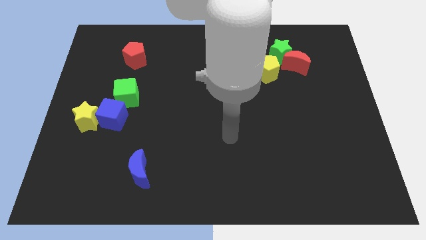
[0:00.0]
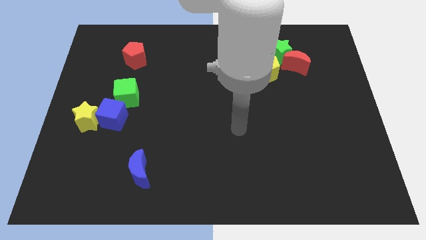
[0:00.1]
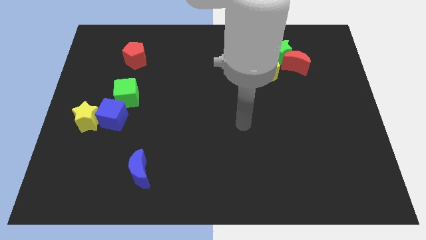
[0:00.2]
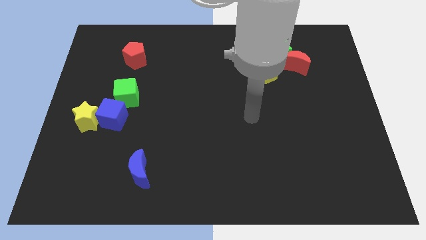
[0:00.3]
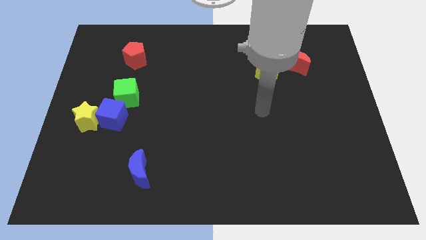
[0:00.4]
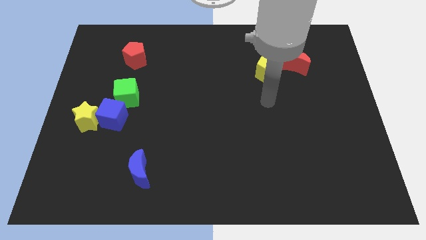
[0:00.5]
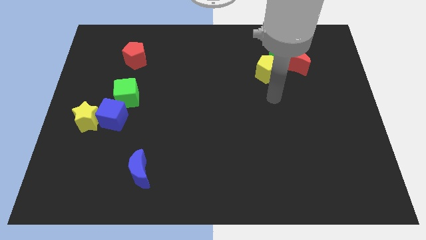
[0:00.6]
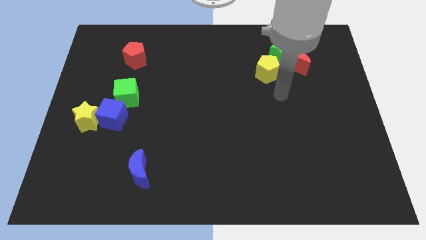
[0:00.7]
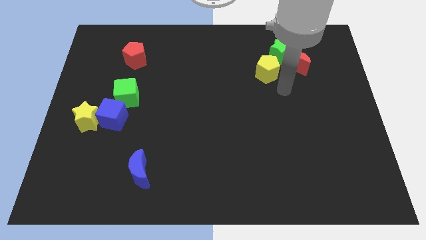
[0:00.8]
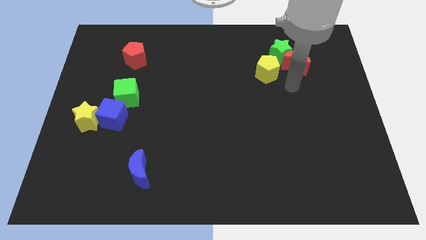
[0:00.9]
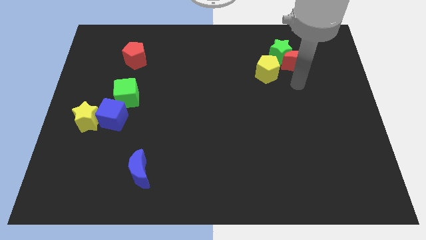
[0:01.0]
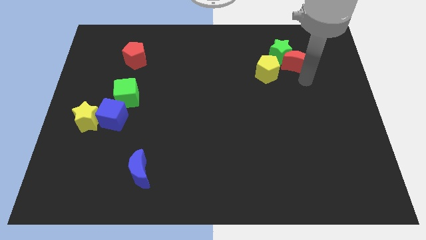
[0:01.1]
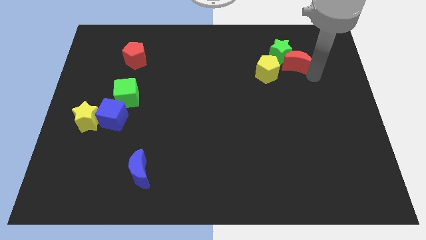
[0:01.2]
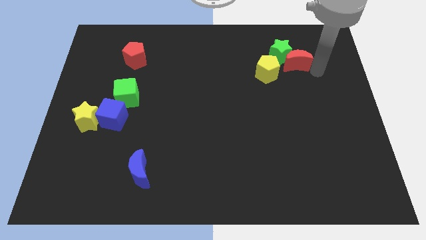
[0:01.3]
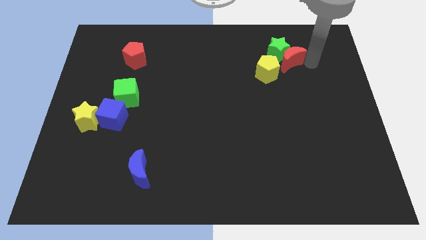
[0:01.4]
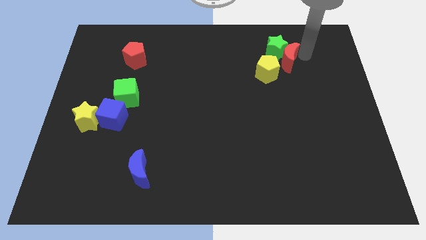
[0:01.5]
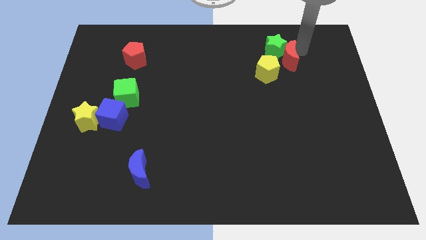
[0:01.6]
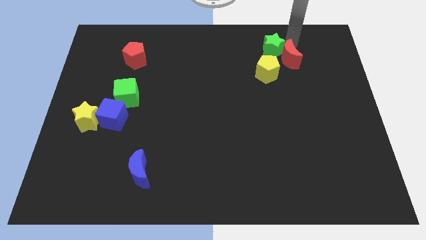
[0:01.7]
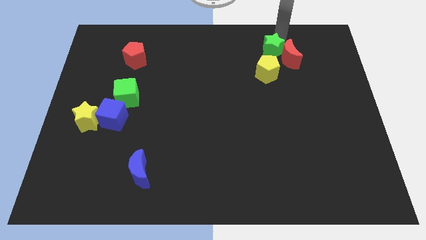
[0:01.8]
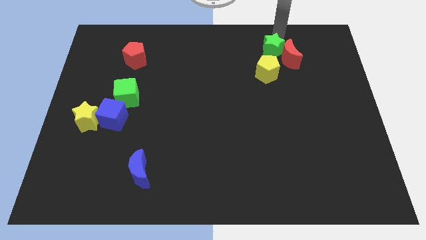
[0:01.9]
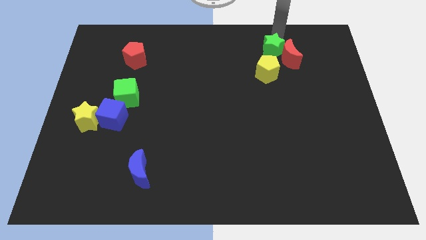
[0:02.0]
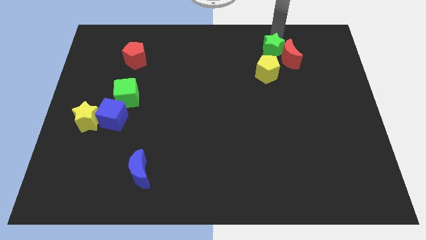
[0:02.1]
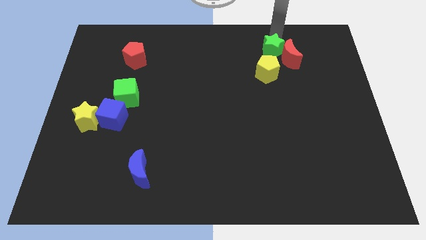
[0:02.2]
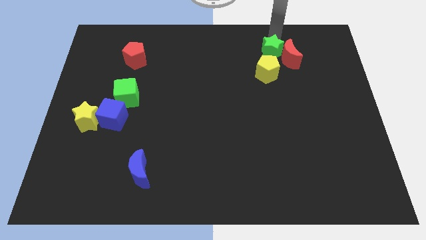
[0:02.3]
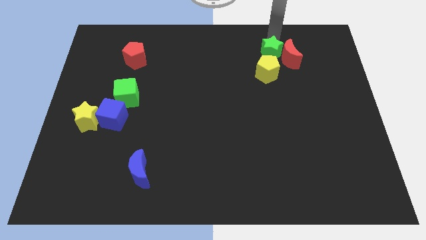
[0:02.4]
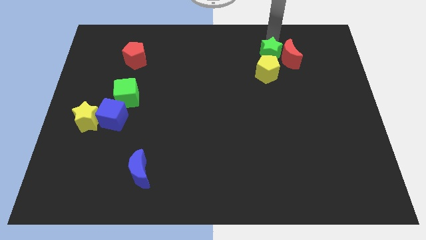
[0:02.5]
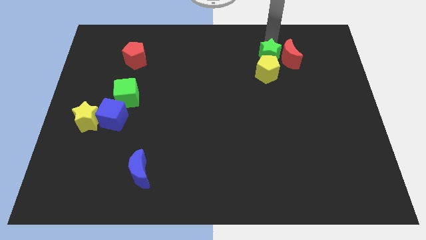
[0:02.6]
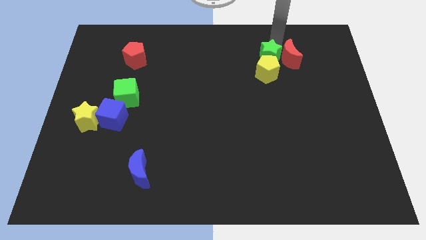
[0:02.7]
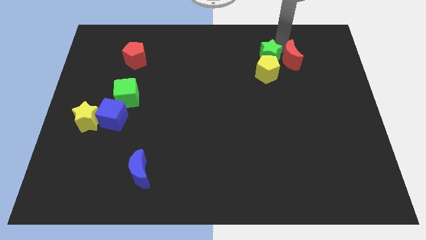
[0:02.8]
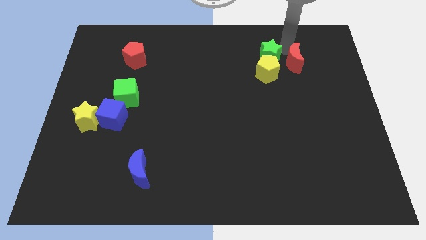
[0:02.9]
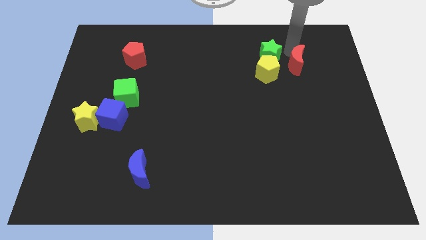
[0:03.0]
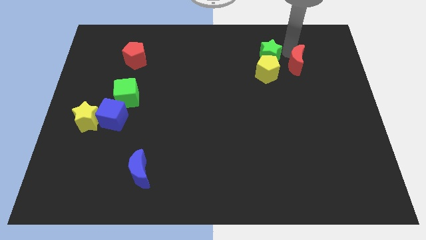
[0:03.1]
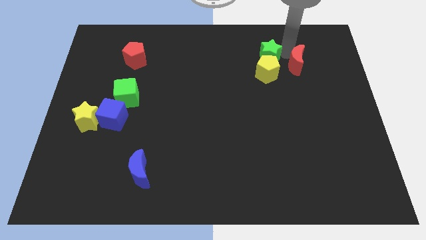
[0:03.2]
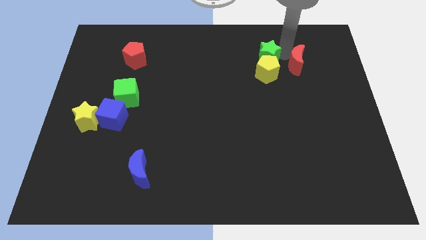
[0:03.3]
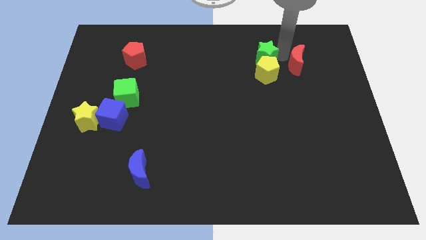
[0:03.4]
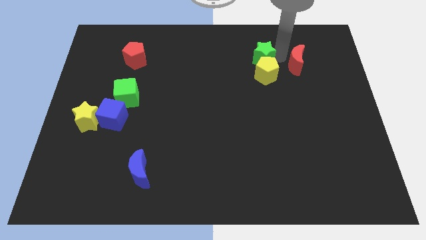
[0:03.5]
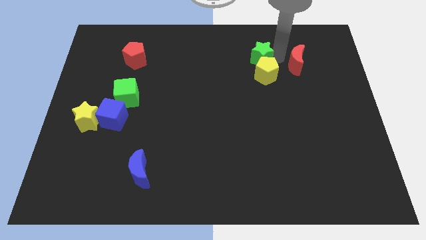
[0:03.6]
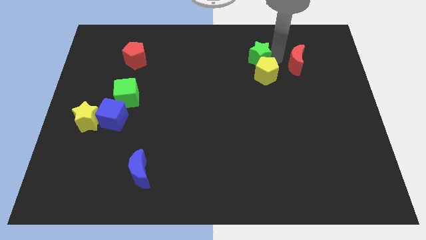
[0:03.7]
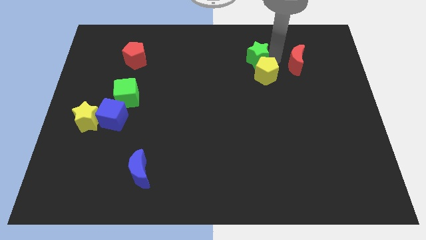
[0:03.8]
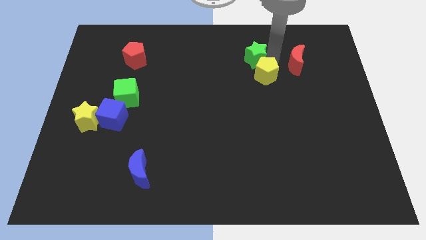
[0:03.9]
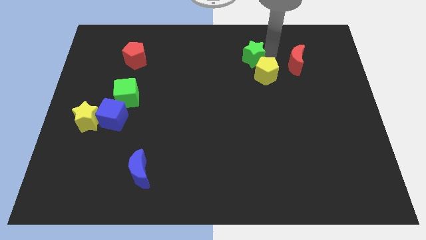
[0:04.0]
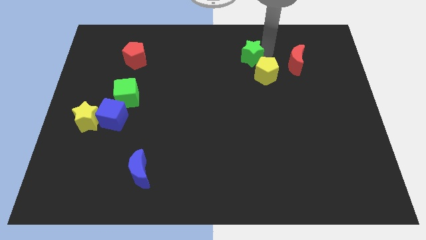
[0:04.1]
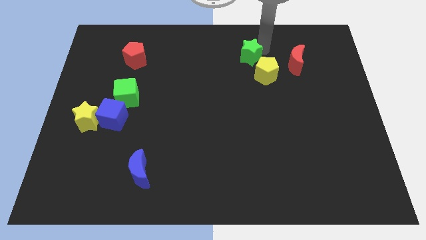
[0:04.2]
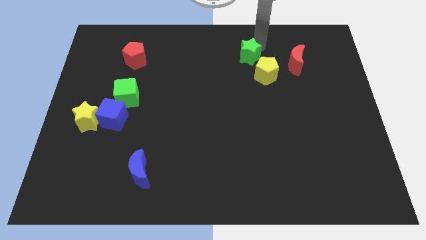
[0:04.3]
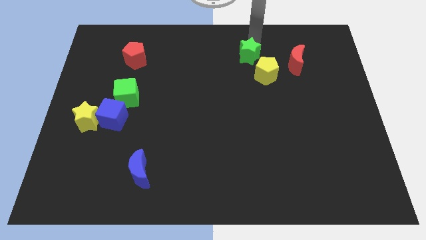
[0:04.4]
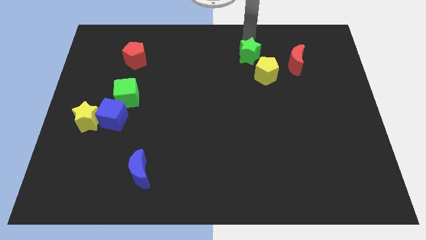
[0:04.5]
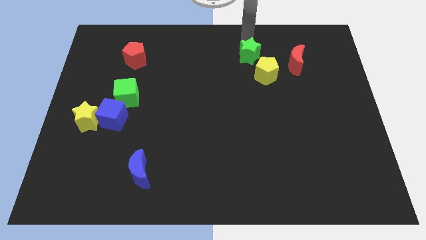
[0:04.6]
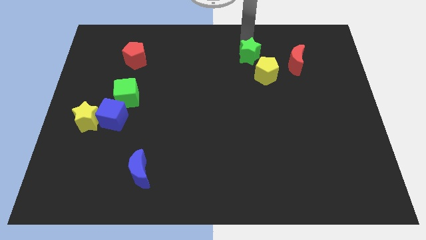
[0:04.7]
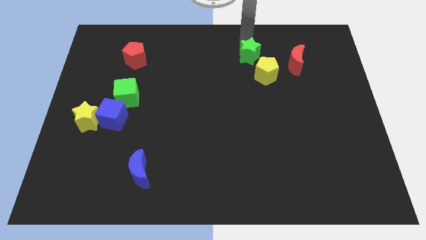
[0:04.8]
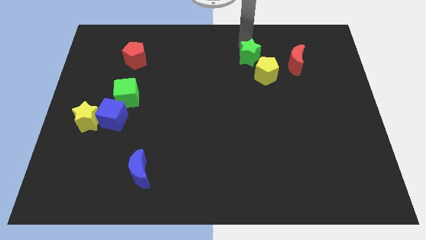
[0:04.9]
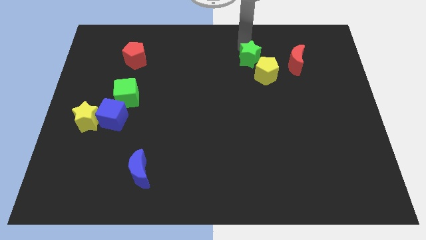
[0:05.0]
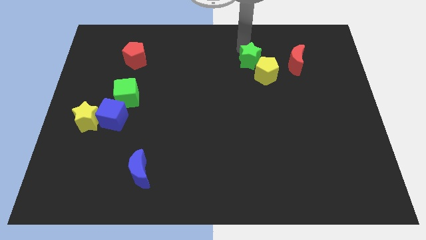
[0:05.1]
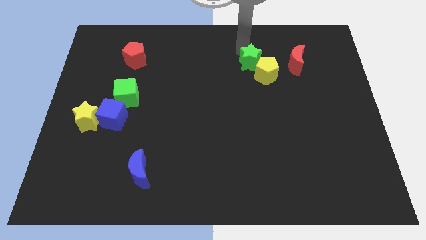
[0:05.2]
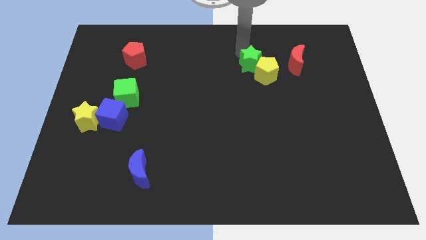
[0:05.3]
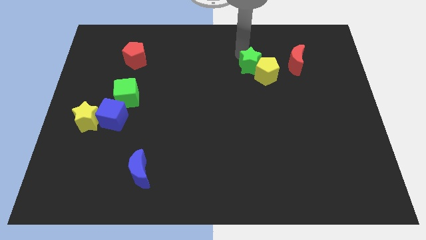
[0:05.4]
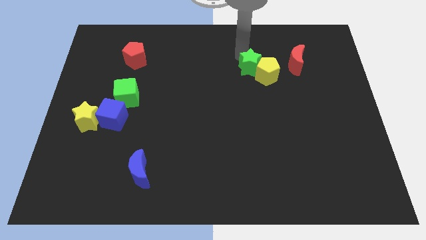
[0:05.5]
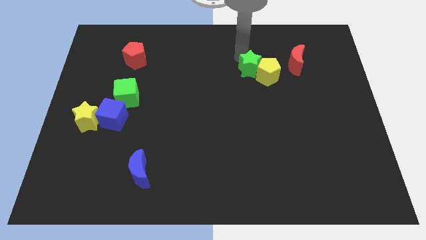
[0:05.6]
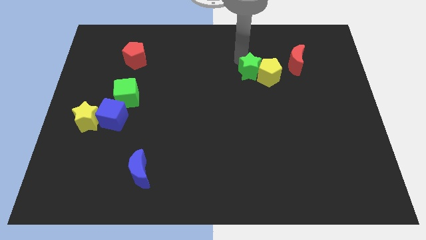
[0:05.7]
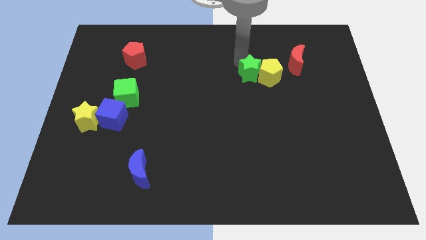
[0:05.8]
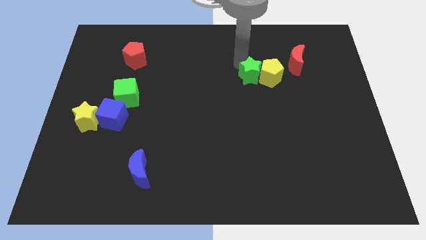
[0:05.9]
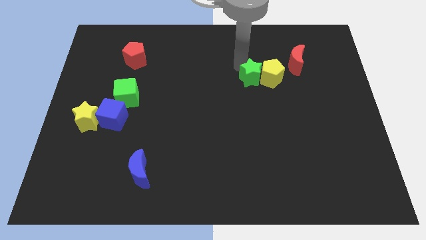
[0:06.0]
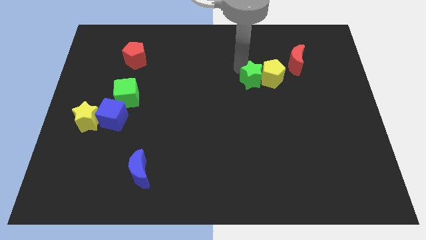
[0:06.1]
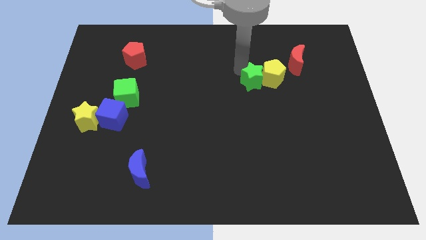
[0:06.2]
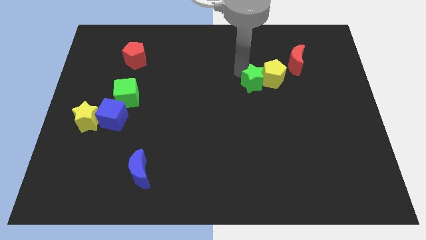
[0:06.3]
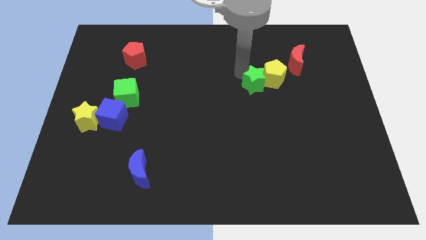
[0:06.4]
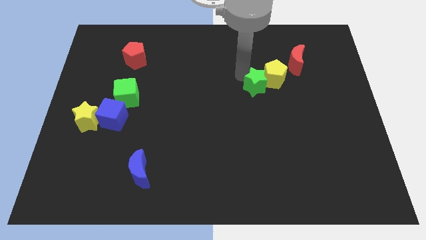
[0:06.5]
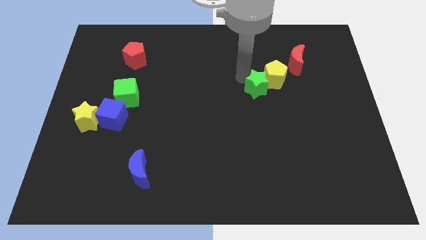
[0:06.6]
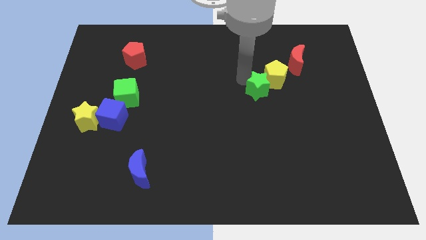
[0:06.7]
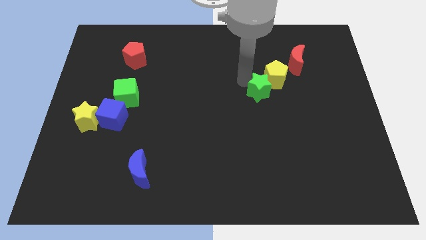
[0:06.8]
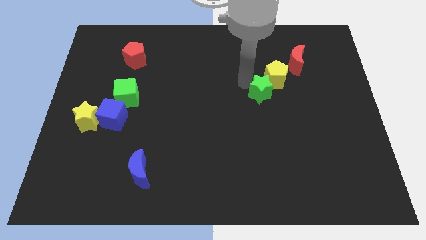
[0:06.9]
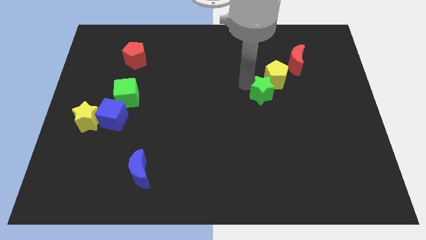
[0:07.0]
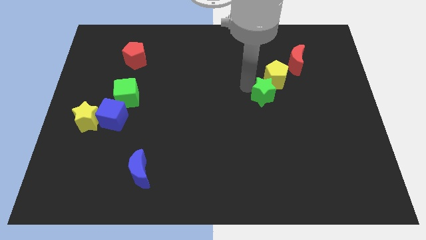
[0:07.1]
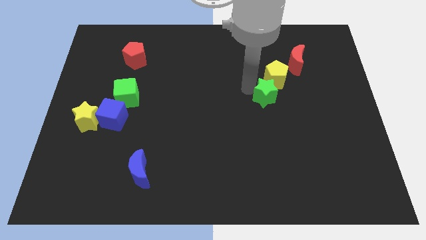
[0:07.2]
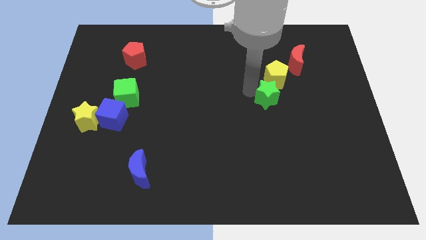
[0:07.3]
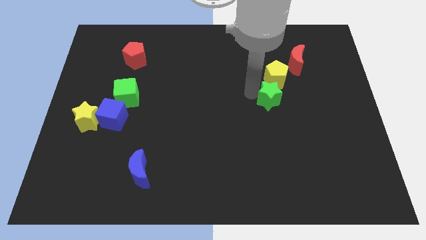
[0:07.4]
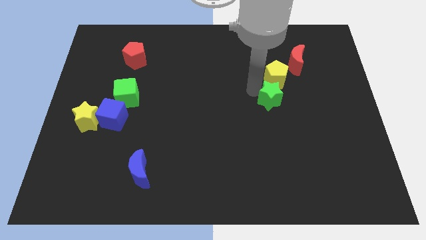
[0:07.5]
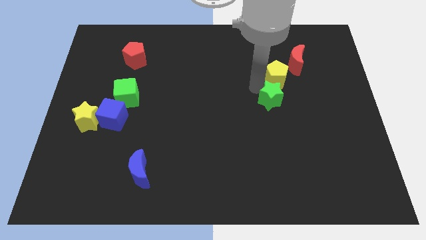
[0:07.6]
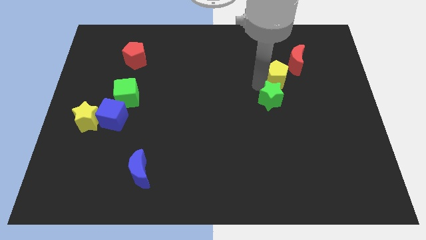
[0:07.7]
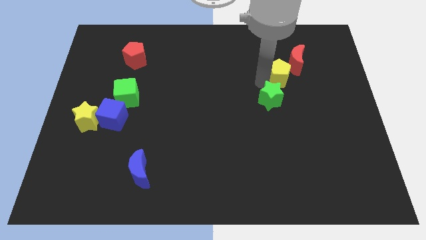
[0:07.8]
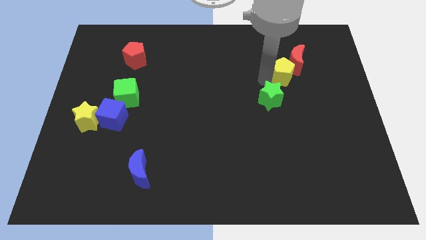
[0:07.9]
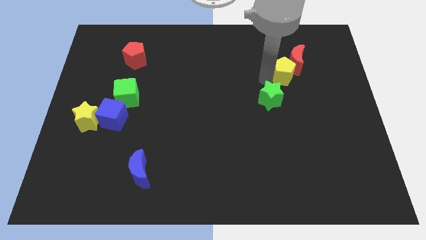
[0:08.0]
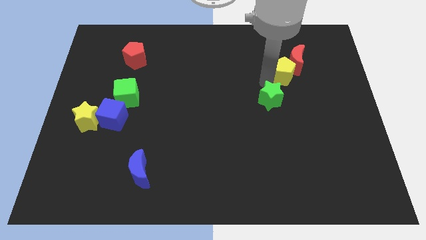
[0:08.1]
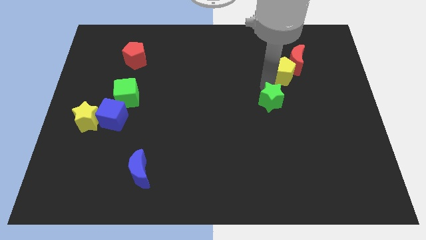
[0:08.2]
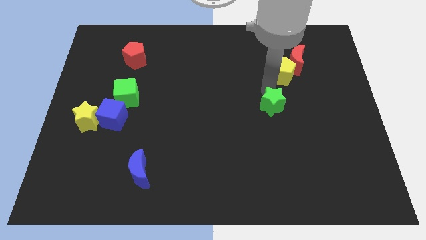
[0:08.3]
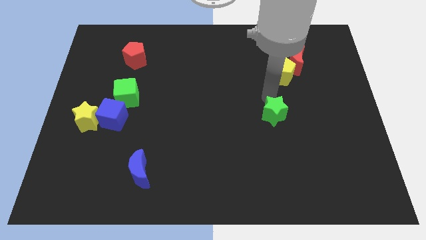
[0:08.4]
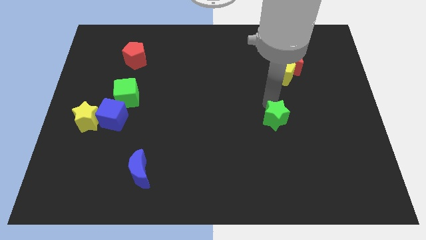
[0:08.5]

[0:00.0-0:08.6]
push the green star downwards
